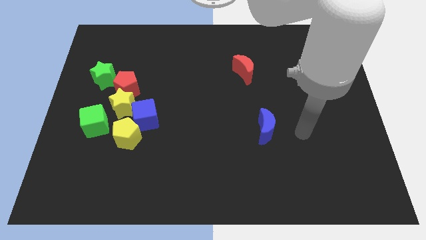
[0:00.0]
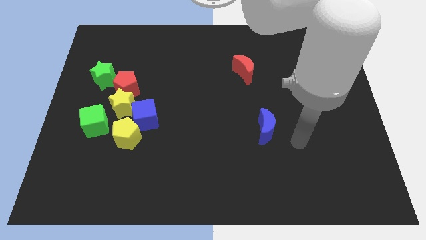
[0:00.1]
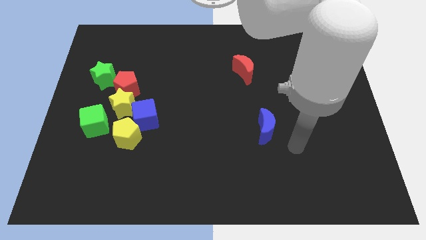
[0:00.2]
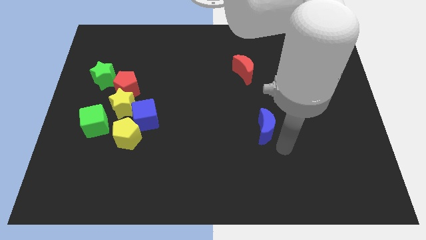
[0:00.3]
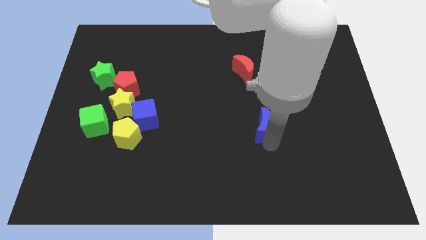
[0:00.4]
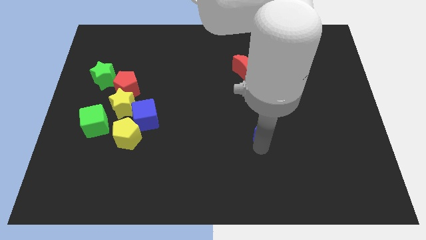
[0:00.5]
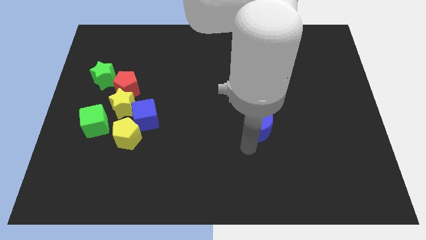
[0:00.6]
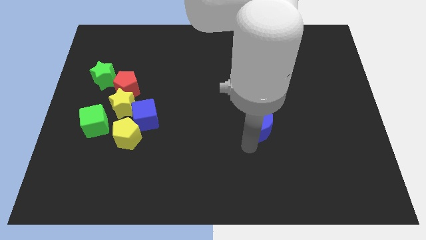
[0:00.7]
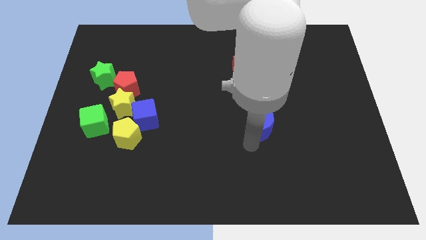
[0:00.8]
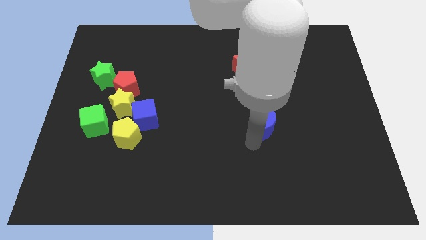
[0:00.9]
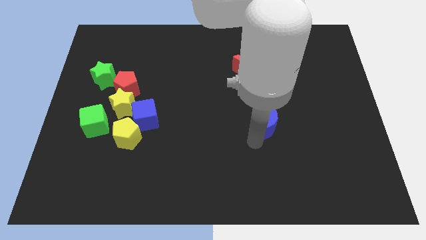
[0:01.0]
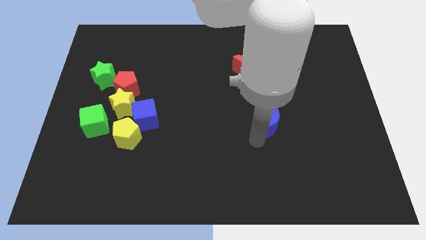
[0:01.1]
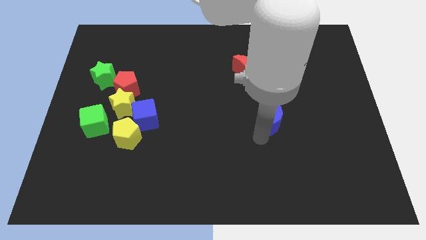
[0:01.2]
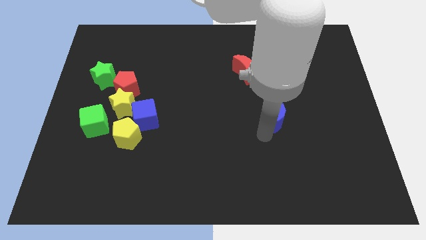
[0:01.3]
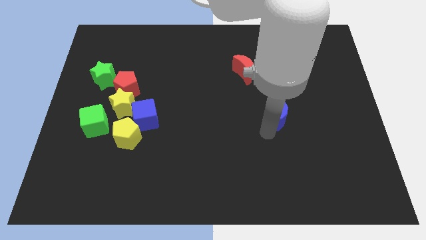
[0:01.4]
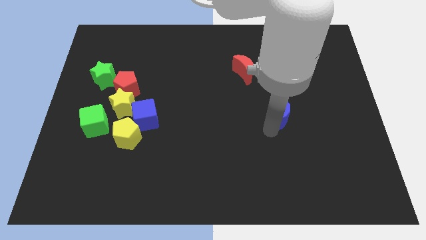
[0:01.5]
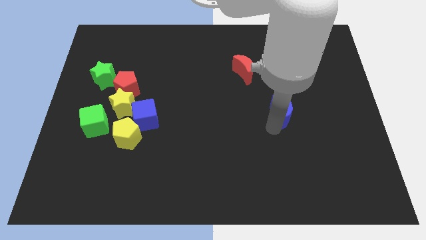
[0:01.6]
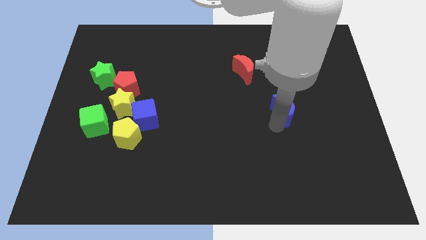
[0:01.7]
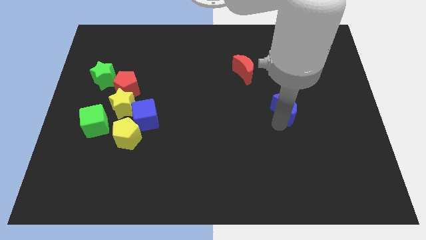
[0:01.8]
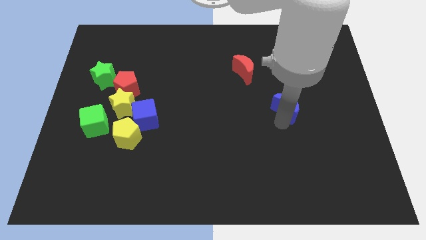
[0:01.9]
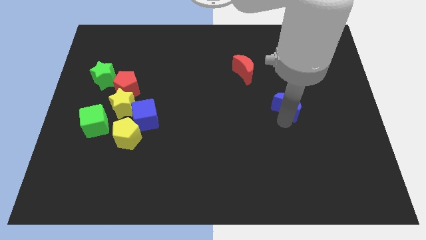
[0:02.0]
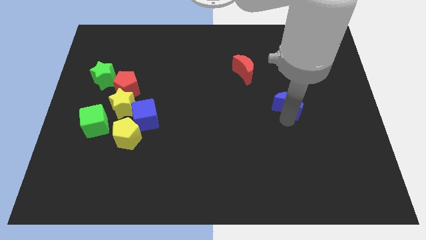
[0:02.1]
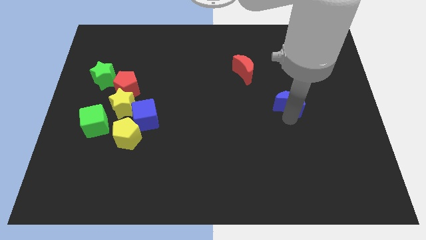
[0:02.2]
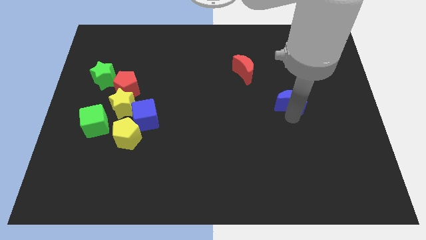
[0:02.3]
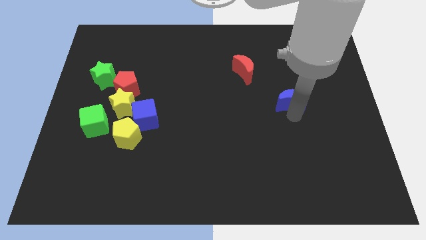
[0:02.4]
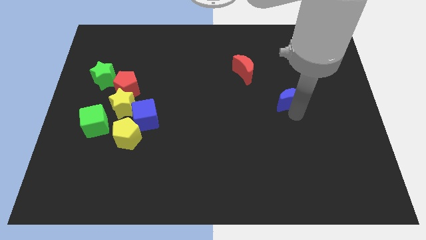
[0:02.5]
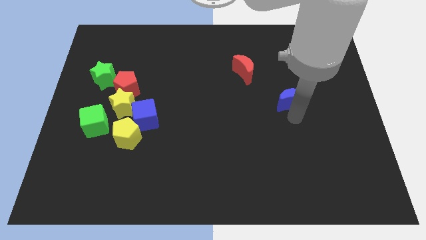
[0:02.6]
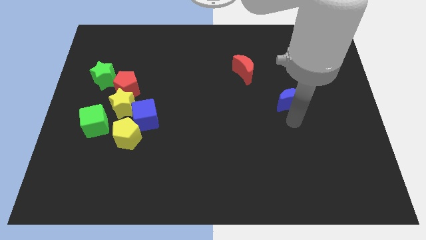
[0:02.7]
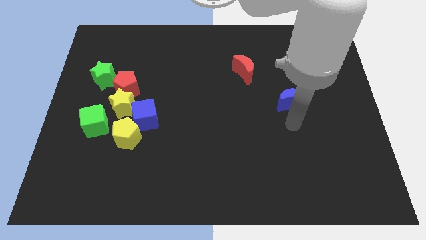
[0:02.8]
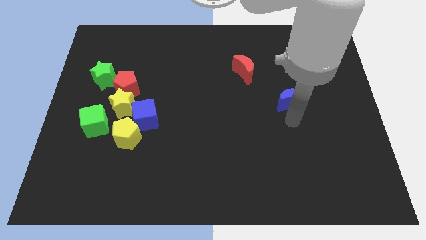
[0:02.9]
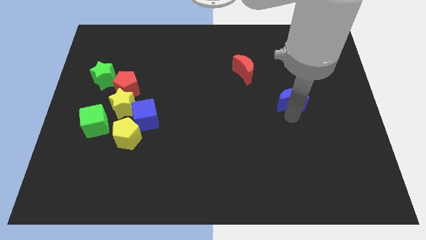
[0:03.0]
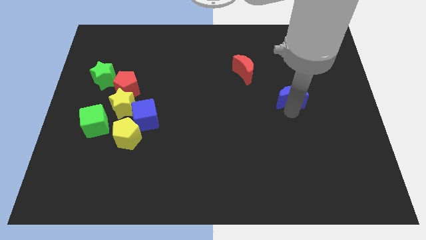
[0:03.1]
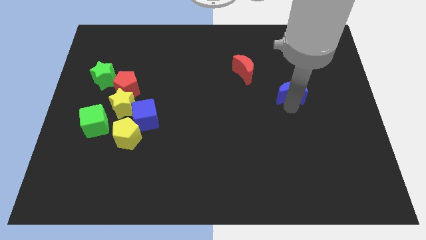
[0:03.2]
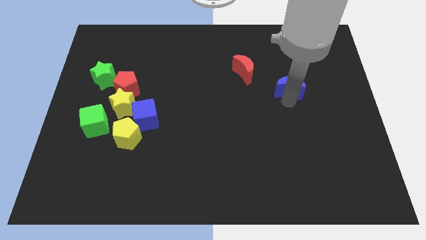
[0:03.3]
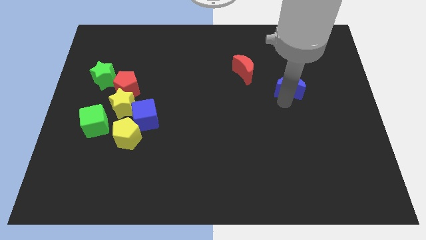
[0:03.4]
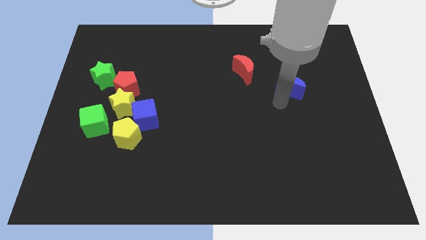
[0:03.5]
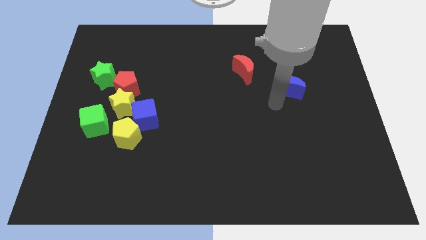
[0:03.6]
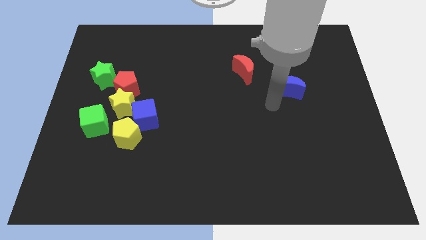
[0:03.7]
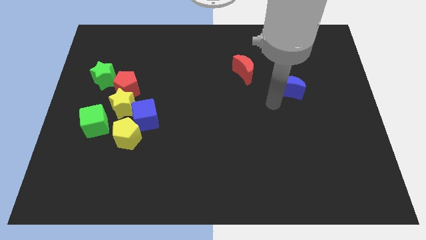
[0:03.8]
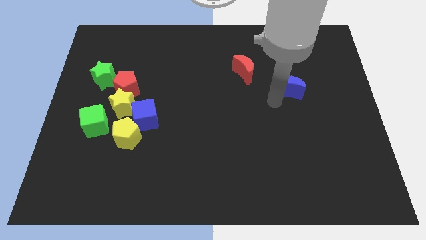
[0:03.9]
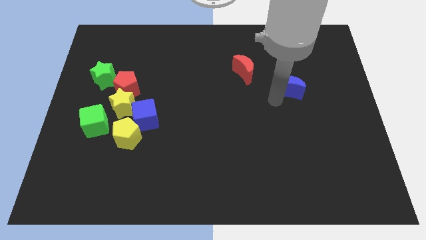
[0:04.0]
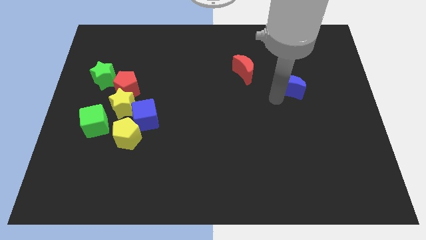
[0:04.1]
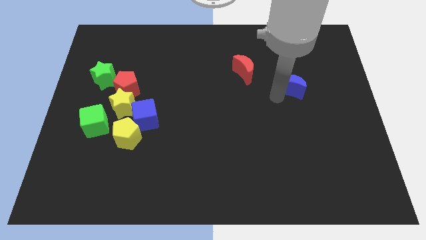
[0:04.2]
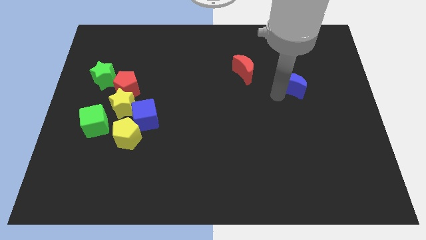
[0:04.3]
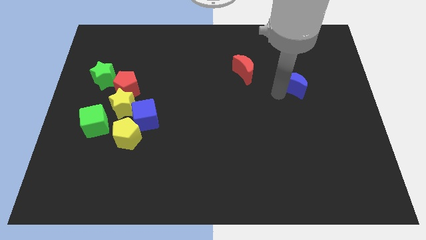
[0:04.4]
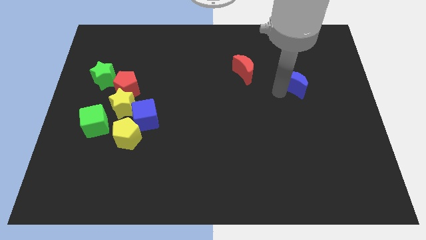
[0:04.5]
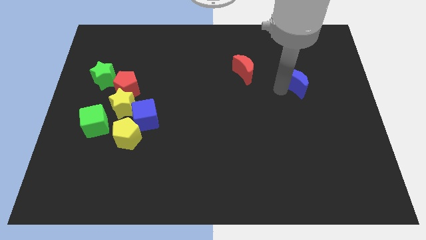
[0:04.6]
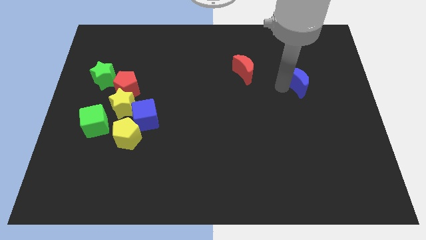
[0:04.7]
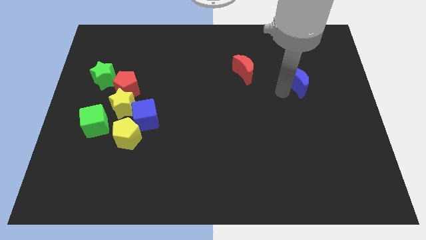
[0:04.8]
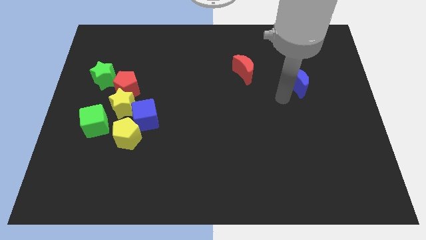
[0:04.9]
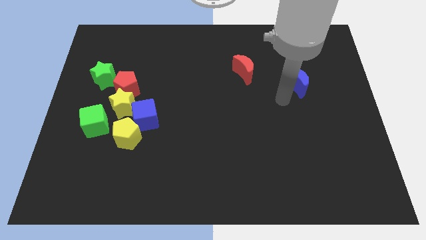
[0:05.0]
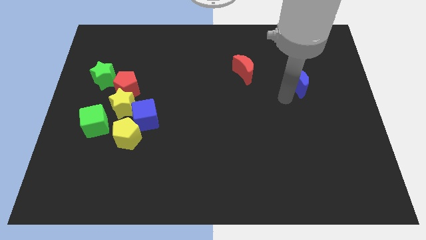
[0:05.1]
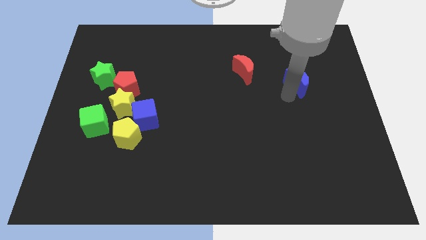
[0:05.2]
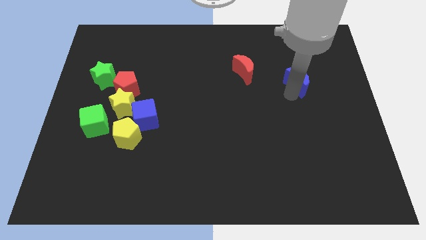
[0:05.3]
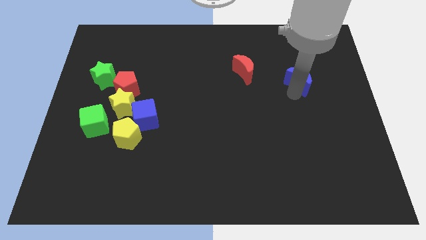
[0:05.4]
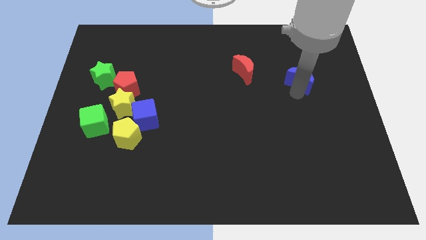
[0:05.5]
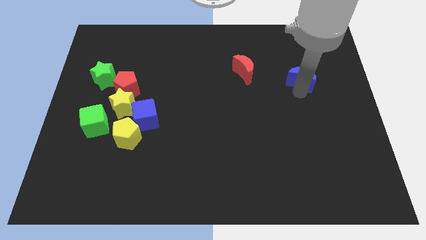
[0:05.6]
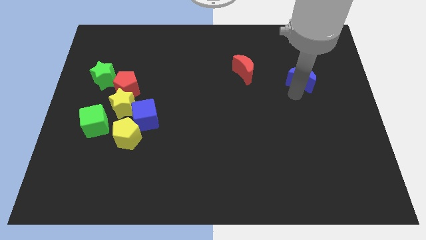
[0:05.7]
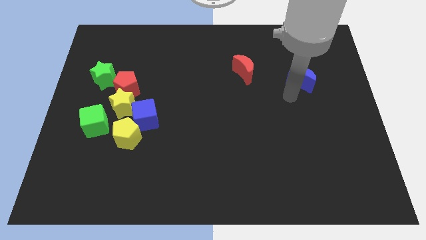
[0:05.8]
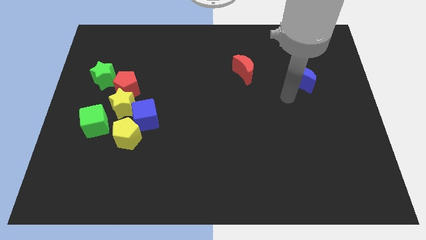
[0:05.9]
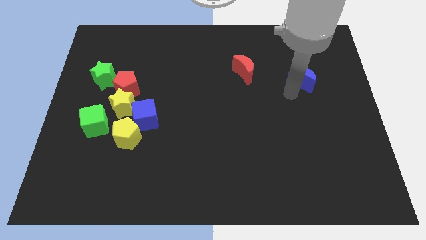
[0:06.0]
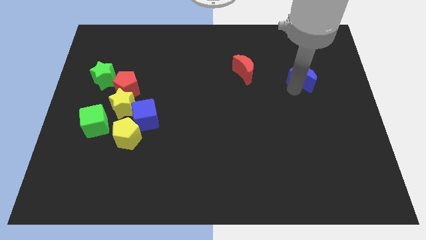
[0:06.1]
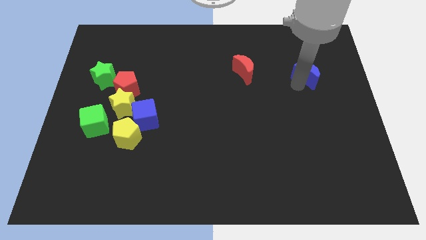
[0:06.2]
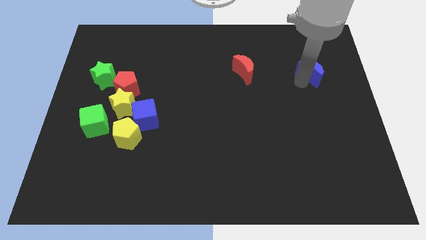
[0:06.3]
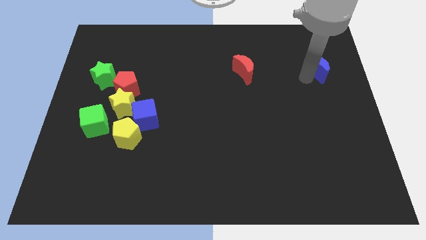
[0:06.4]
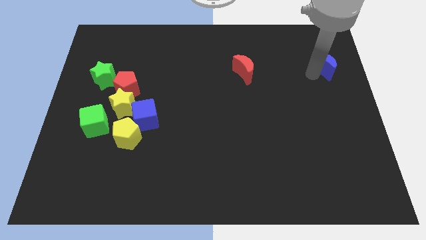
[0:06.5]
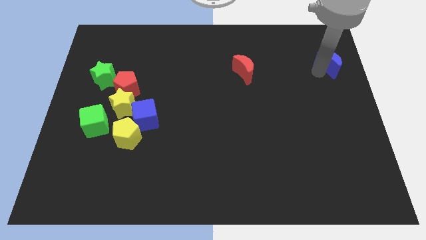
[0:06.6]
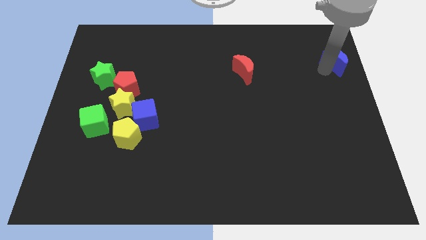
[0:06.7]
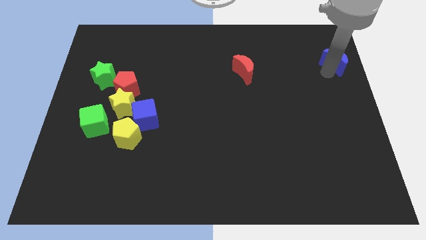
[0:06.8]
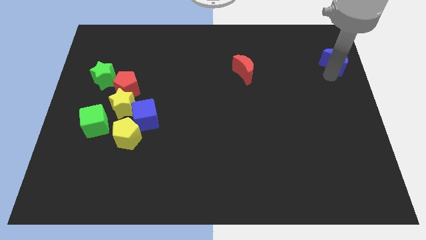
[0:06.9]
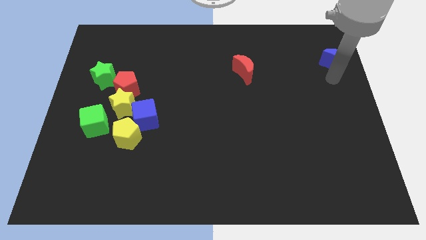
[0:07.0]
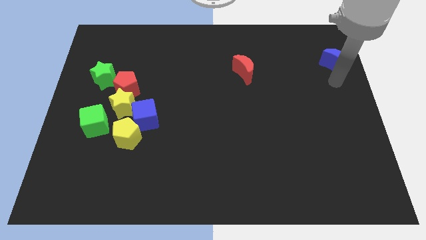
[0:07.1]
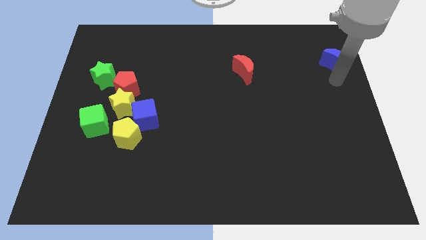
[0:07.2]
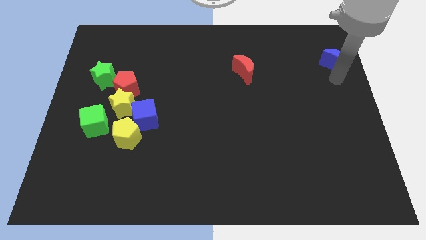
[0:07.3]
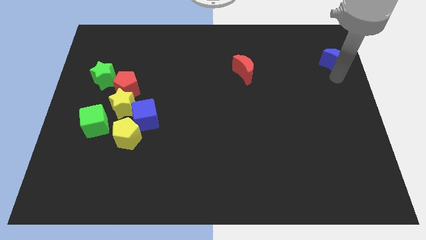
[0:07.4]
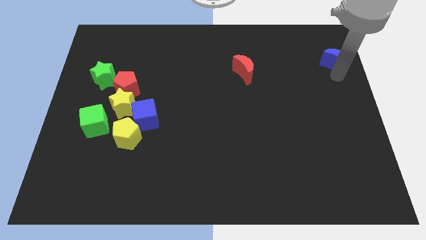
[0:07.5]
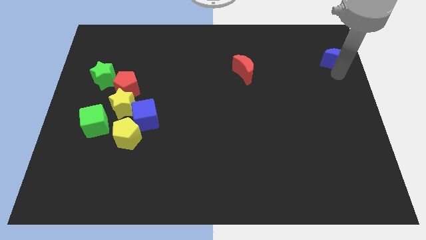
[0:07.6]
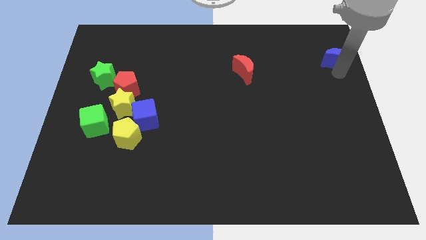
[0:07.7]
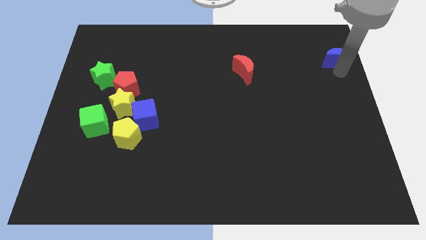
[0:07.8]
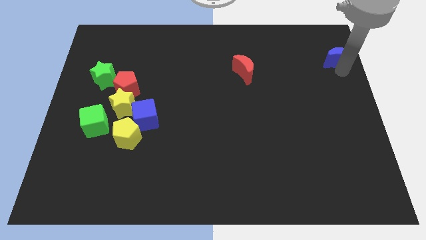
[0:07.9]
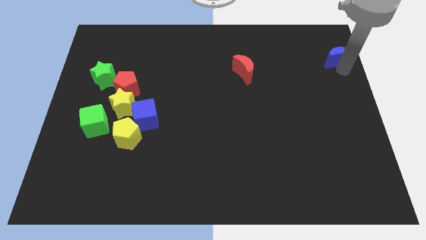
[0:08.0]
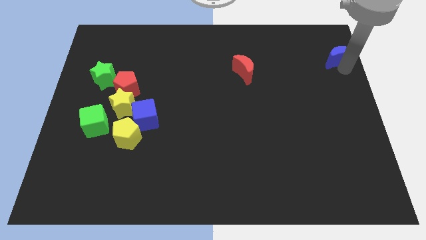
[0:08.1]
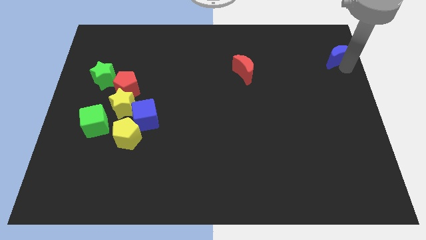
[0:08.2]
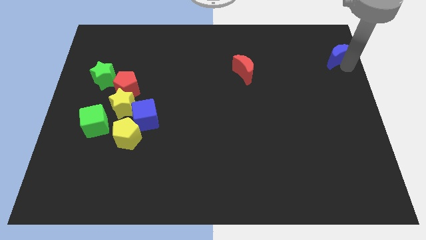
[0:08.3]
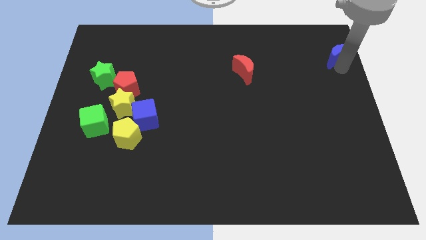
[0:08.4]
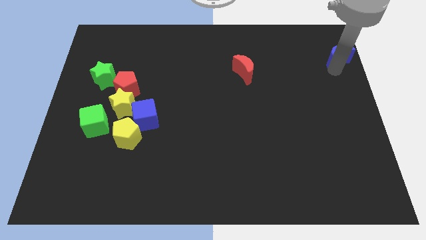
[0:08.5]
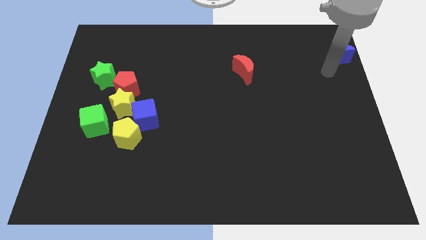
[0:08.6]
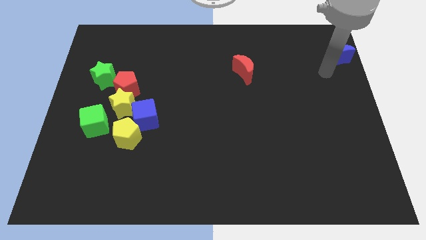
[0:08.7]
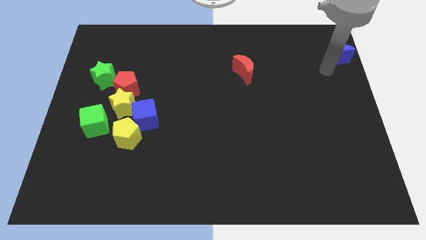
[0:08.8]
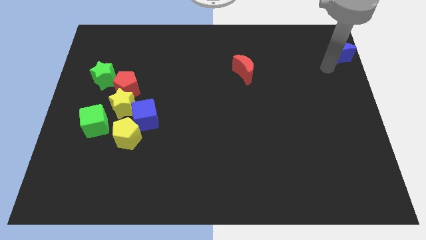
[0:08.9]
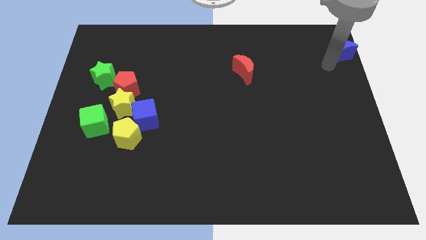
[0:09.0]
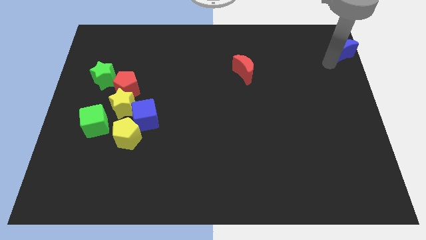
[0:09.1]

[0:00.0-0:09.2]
move the blue moon to the top right corner
